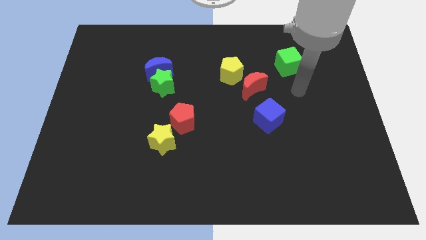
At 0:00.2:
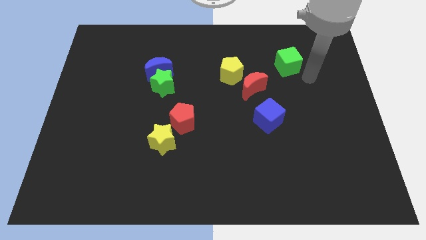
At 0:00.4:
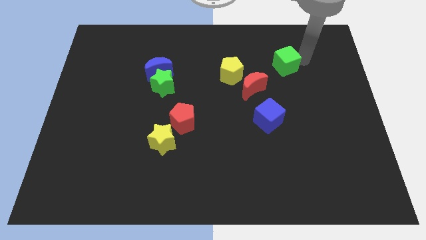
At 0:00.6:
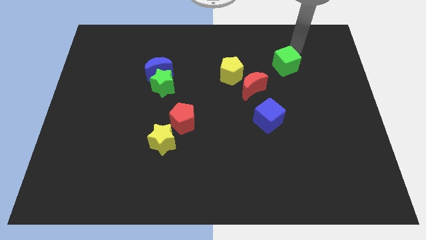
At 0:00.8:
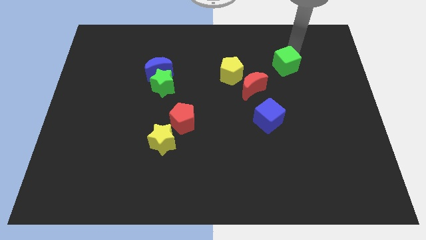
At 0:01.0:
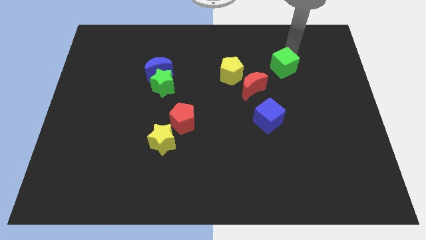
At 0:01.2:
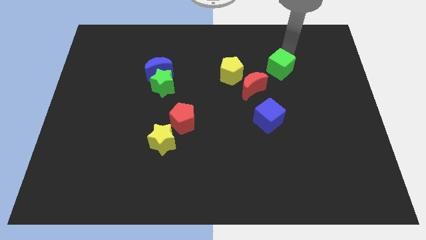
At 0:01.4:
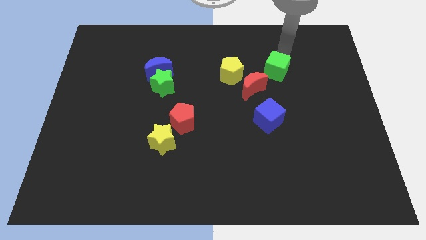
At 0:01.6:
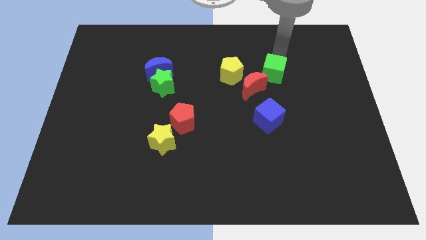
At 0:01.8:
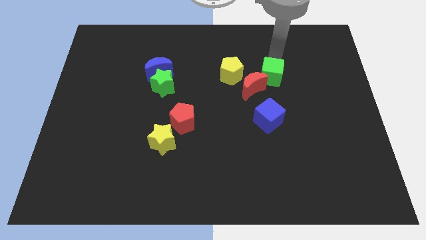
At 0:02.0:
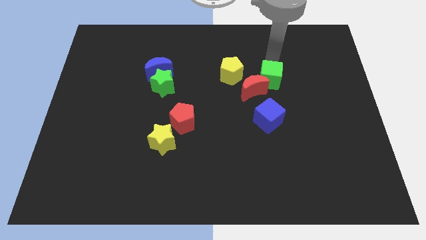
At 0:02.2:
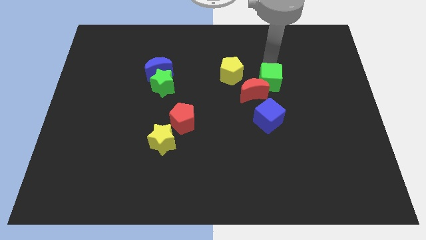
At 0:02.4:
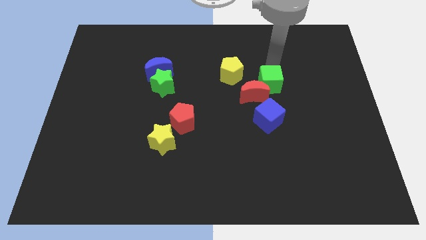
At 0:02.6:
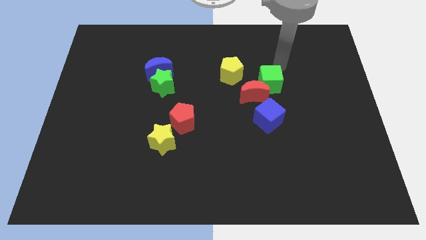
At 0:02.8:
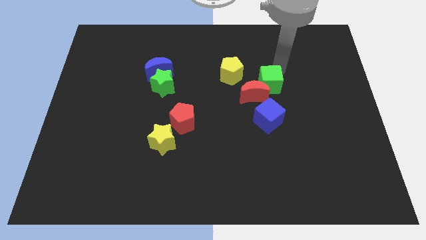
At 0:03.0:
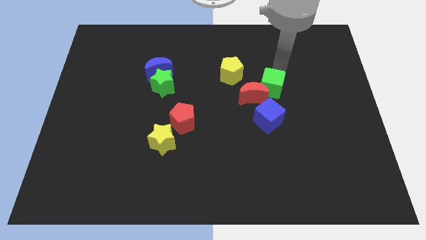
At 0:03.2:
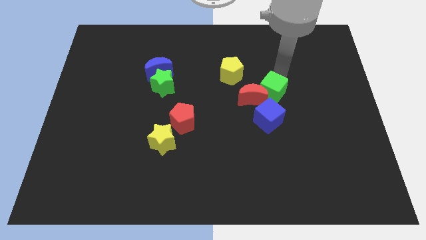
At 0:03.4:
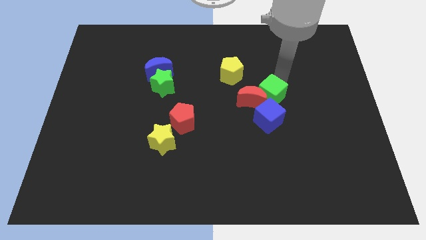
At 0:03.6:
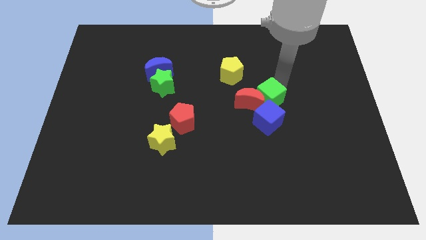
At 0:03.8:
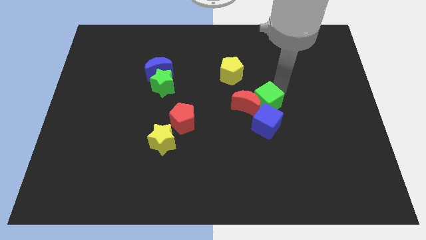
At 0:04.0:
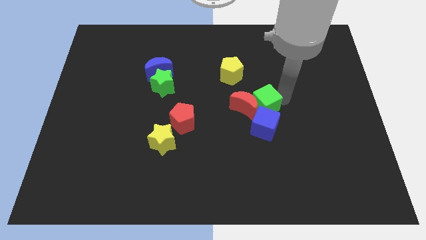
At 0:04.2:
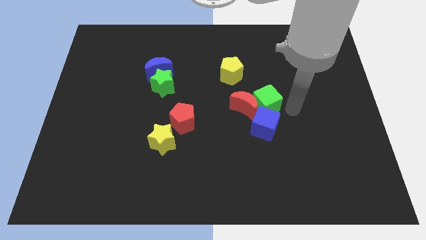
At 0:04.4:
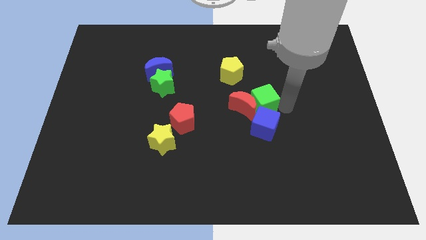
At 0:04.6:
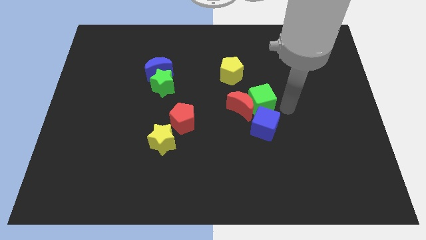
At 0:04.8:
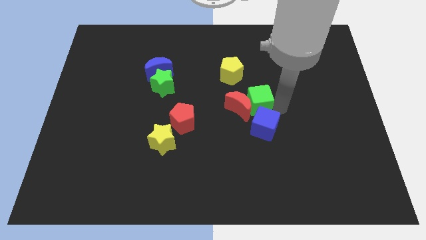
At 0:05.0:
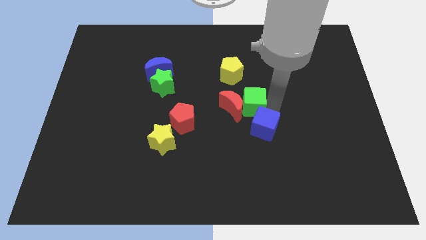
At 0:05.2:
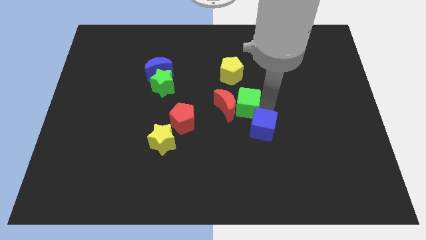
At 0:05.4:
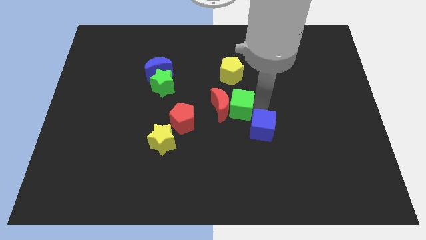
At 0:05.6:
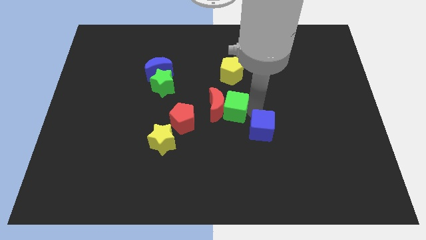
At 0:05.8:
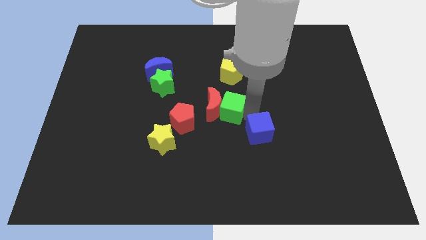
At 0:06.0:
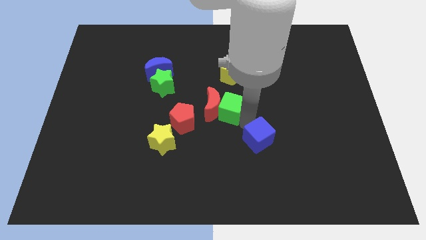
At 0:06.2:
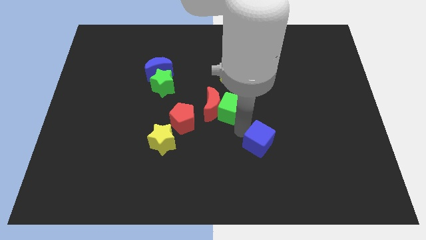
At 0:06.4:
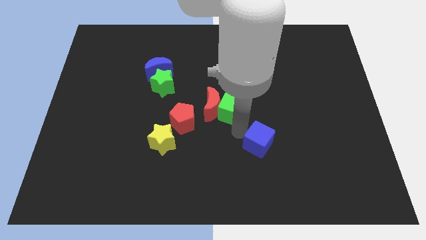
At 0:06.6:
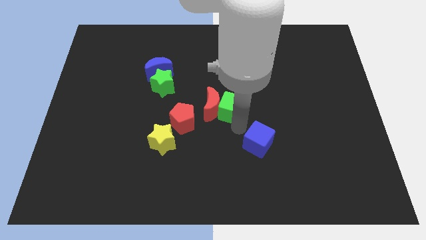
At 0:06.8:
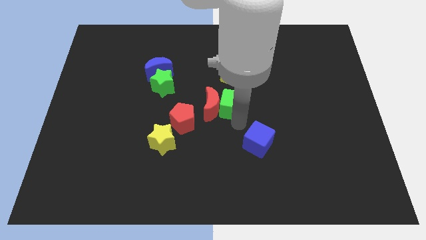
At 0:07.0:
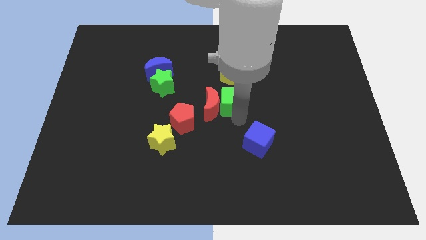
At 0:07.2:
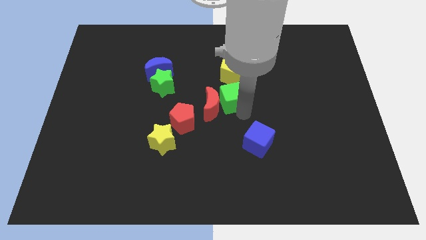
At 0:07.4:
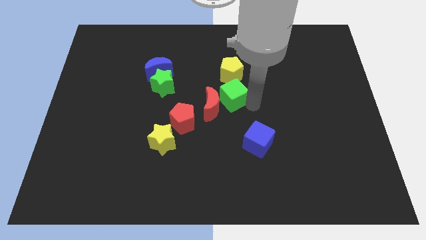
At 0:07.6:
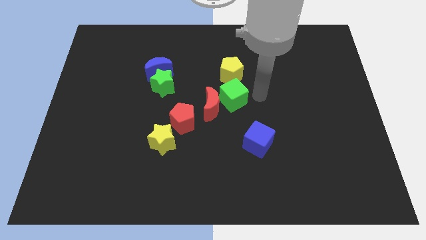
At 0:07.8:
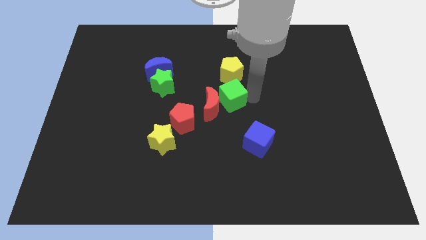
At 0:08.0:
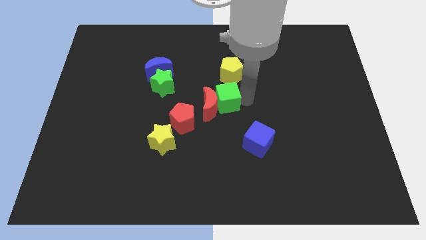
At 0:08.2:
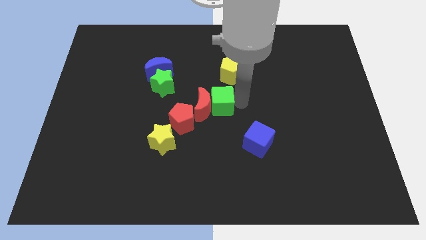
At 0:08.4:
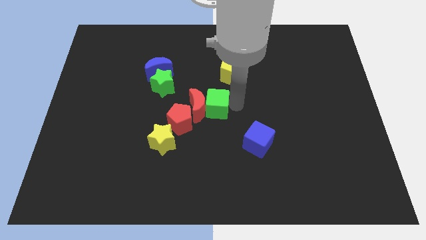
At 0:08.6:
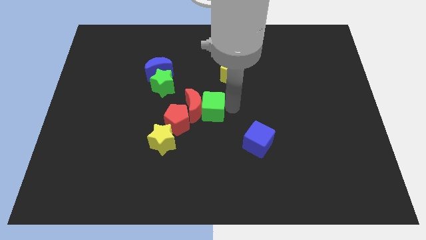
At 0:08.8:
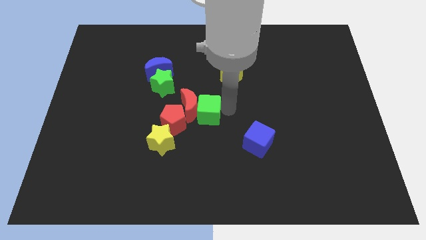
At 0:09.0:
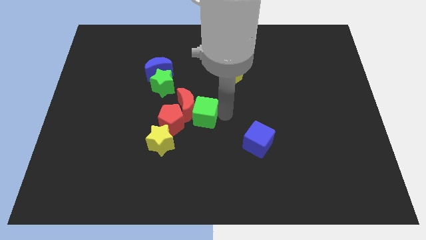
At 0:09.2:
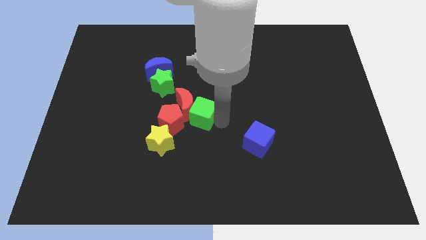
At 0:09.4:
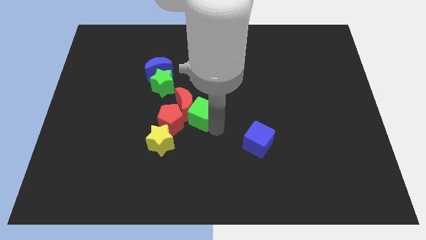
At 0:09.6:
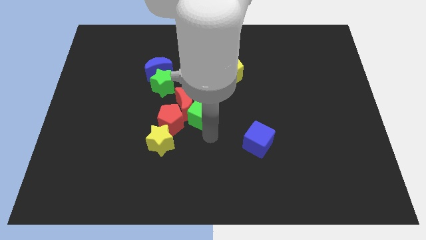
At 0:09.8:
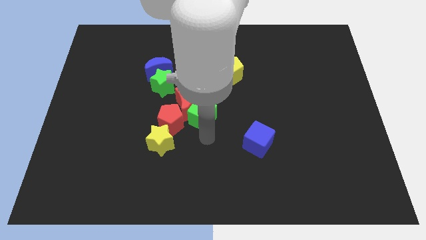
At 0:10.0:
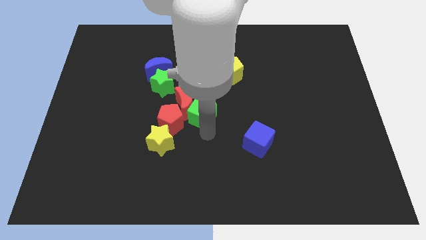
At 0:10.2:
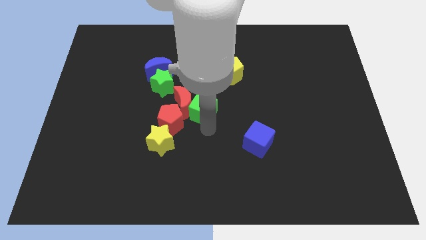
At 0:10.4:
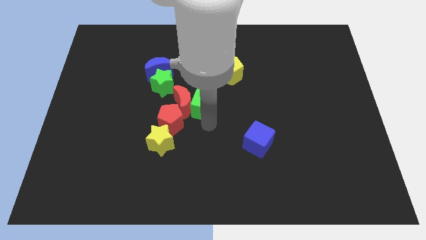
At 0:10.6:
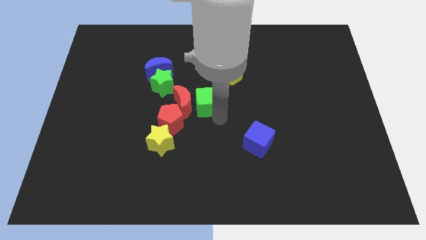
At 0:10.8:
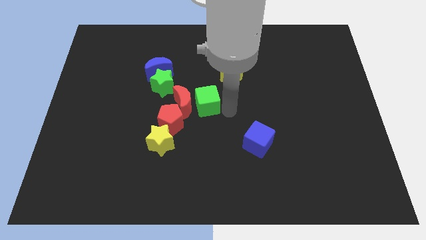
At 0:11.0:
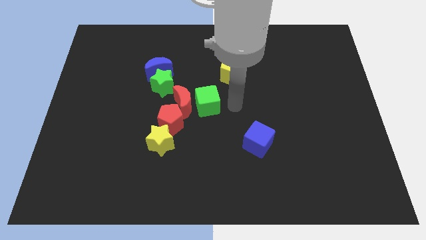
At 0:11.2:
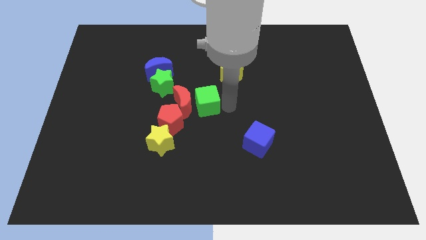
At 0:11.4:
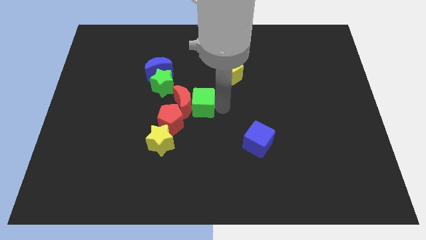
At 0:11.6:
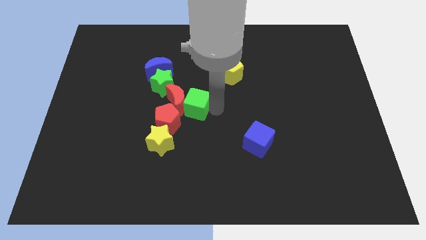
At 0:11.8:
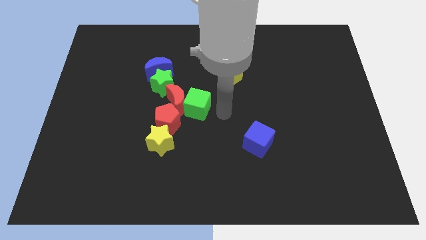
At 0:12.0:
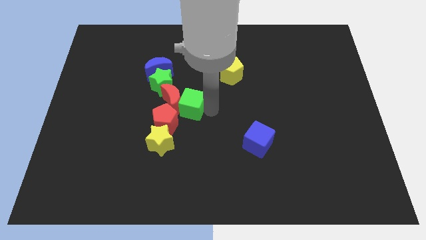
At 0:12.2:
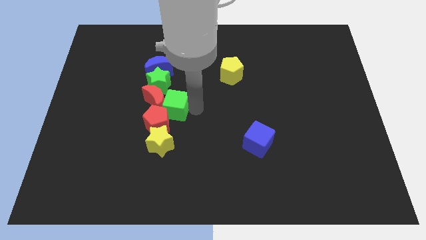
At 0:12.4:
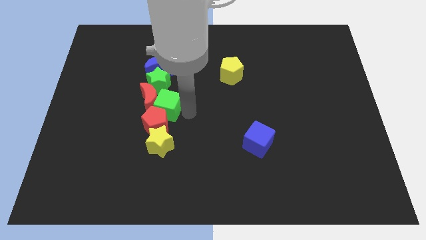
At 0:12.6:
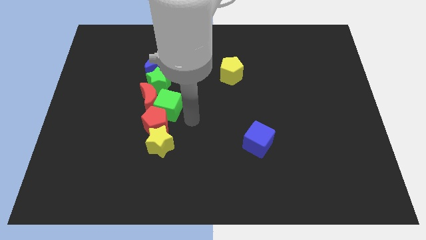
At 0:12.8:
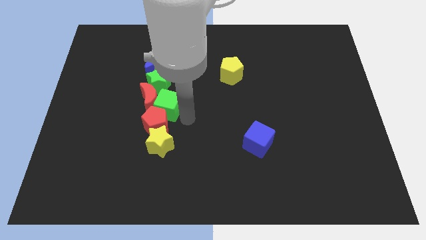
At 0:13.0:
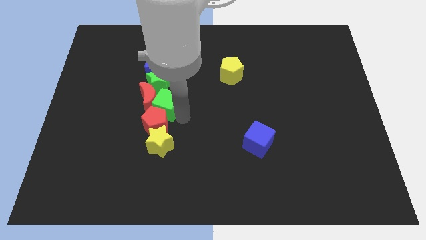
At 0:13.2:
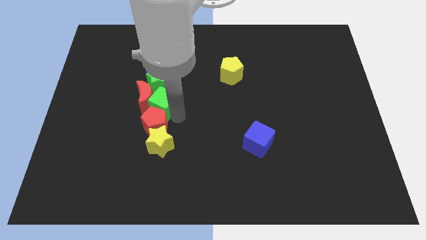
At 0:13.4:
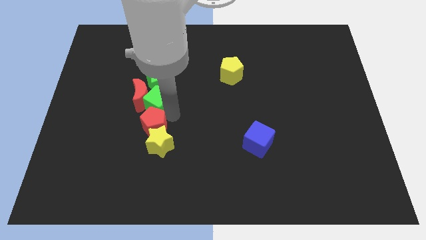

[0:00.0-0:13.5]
push the green cube diagonally down and to the left of the green star
